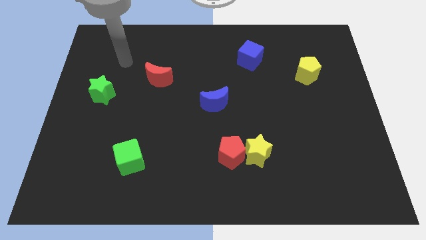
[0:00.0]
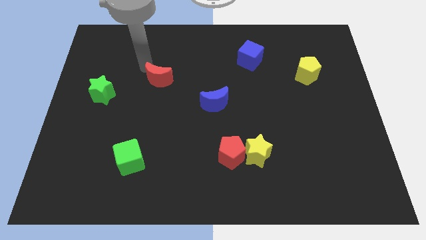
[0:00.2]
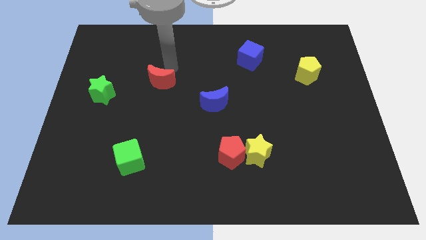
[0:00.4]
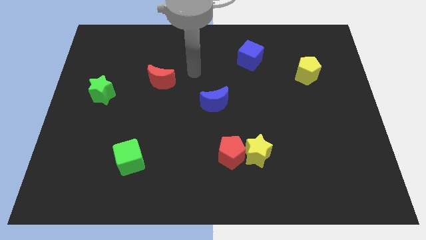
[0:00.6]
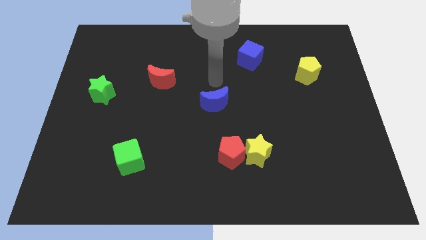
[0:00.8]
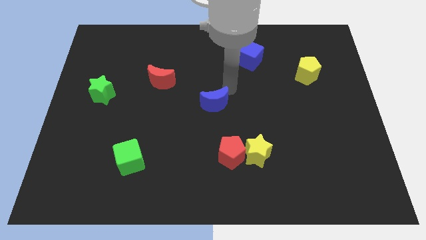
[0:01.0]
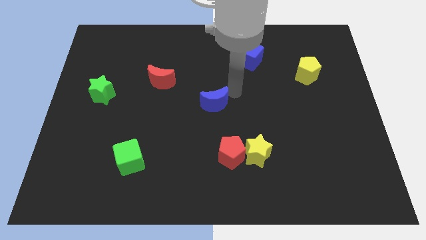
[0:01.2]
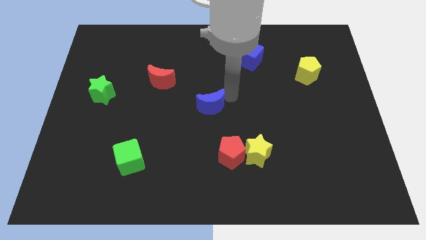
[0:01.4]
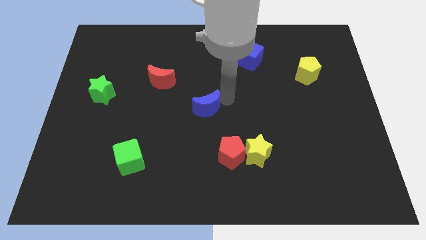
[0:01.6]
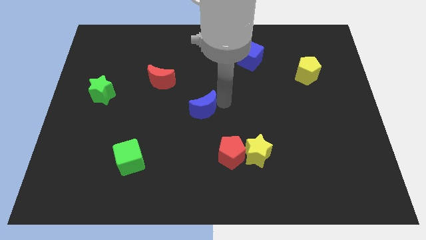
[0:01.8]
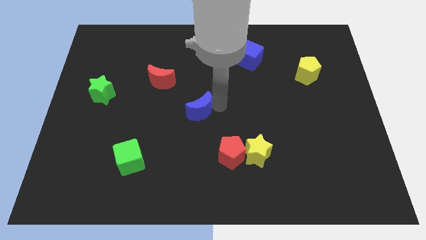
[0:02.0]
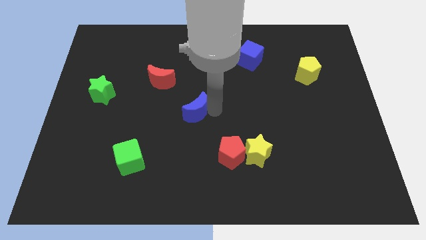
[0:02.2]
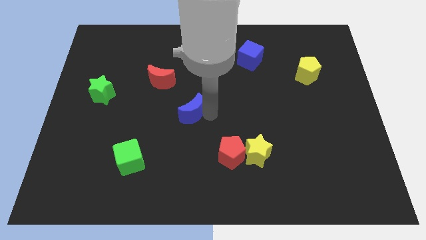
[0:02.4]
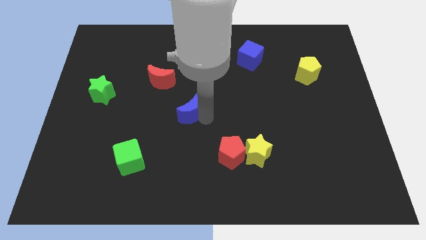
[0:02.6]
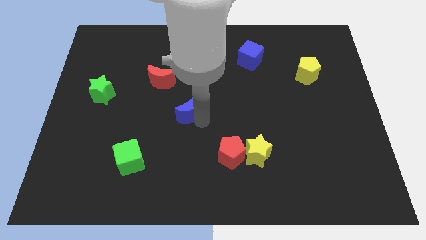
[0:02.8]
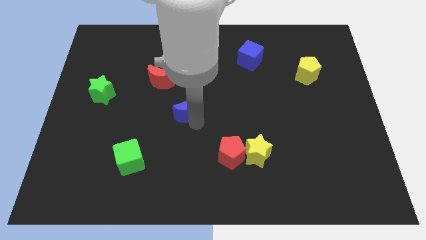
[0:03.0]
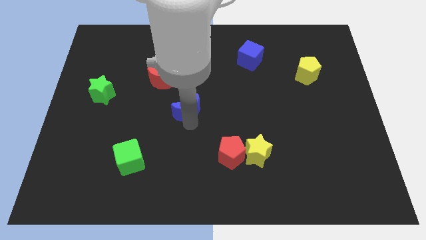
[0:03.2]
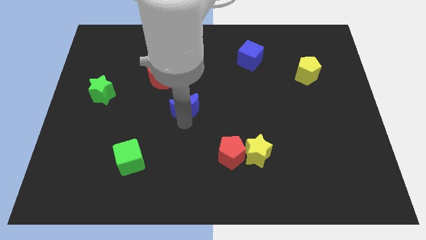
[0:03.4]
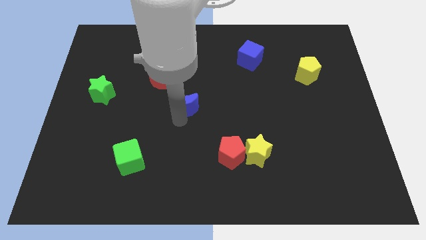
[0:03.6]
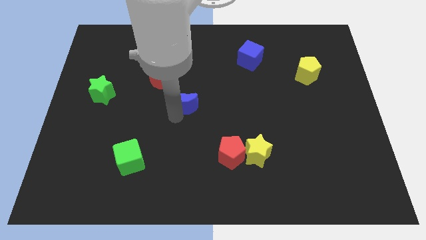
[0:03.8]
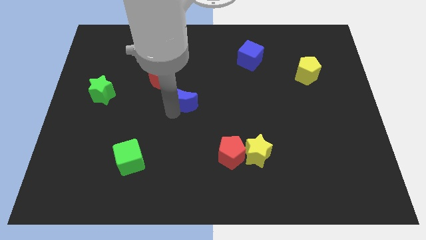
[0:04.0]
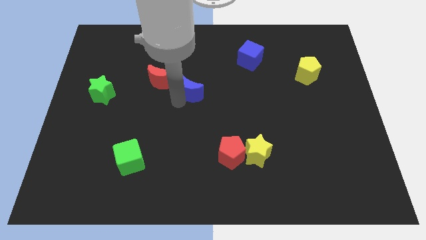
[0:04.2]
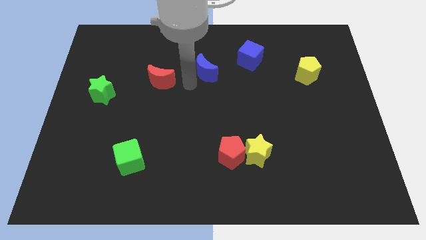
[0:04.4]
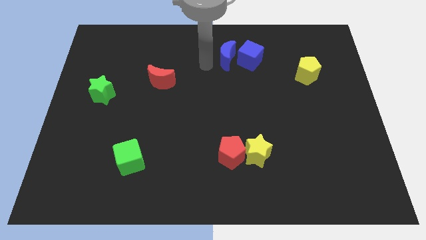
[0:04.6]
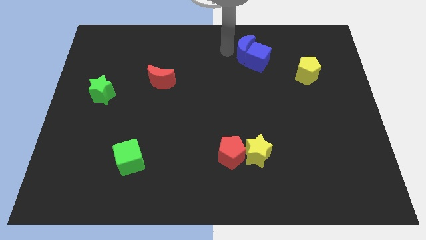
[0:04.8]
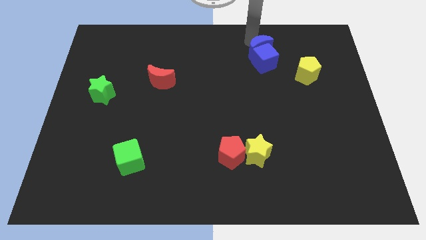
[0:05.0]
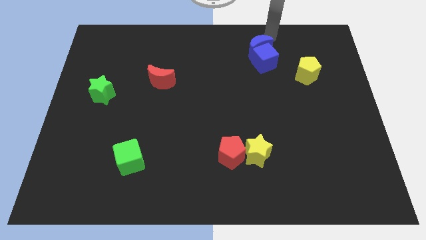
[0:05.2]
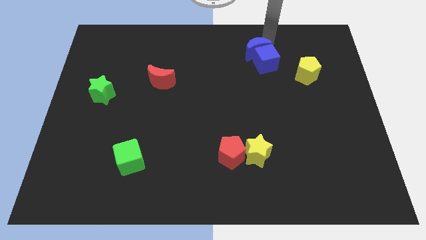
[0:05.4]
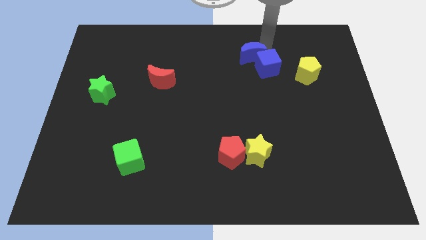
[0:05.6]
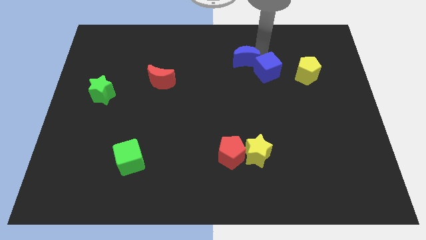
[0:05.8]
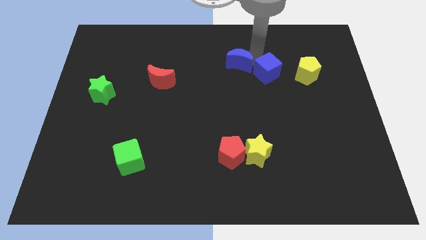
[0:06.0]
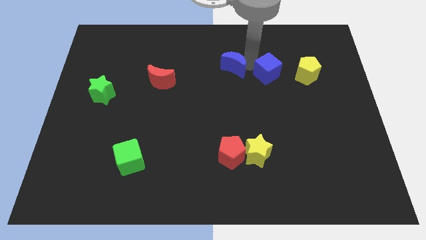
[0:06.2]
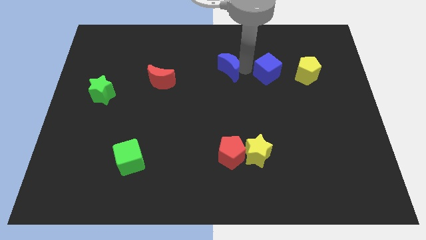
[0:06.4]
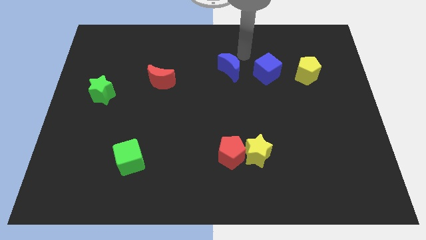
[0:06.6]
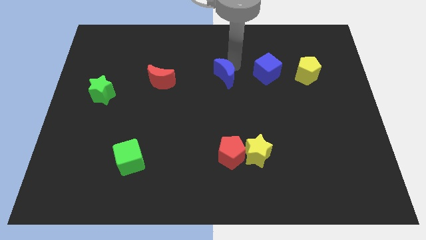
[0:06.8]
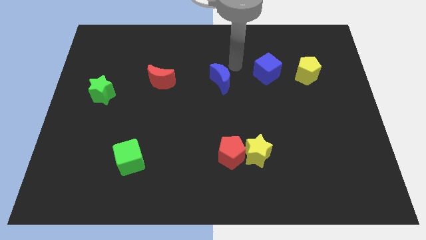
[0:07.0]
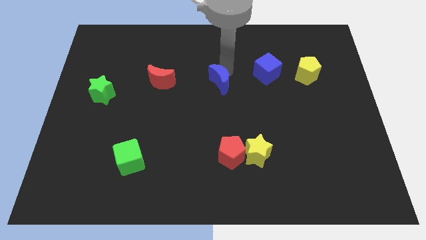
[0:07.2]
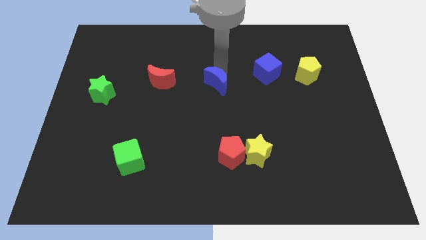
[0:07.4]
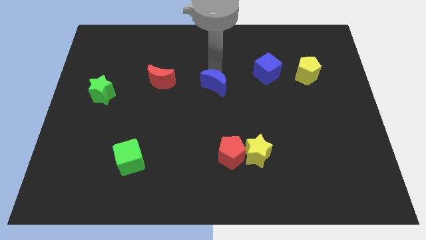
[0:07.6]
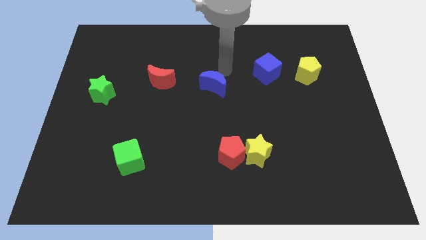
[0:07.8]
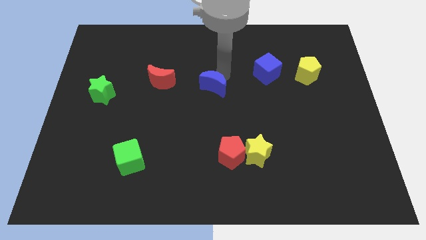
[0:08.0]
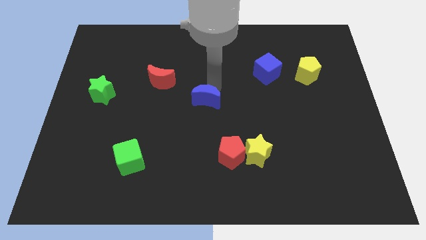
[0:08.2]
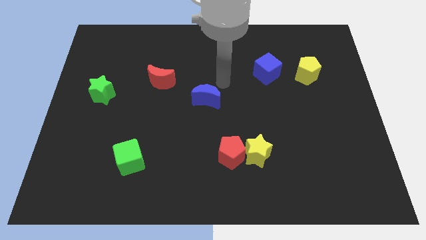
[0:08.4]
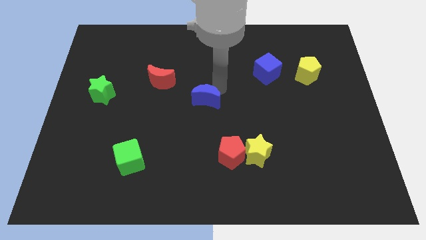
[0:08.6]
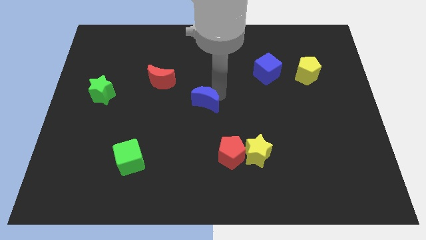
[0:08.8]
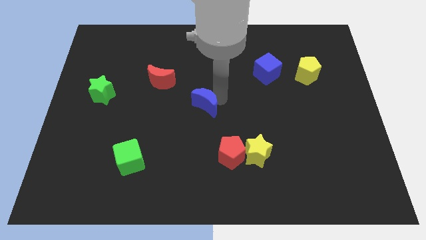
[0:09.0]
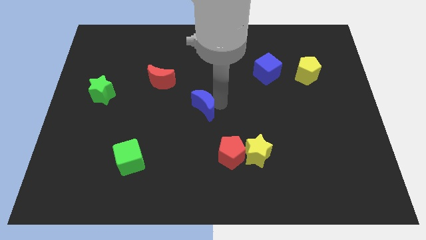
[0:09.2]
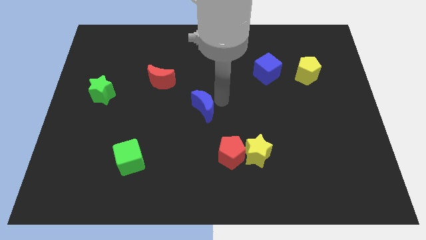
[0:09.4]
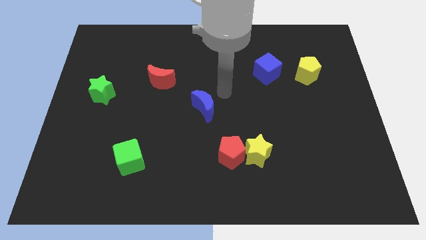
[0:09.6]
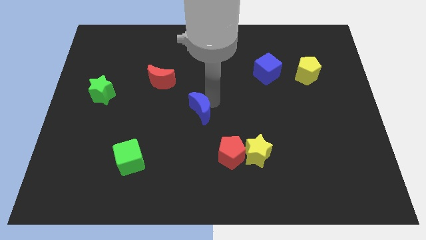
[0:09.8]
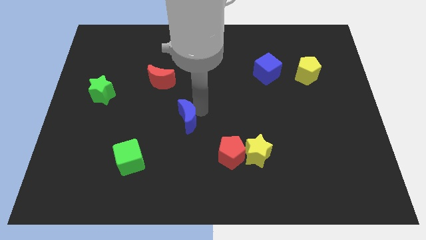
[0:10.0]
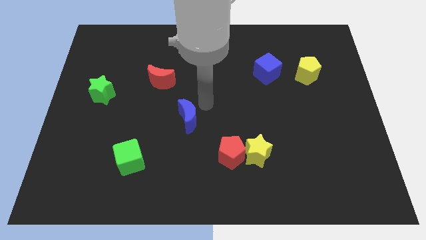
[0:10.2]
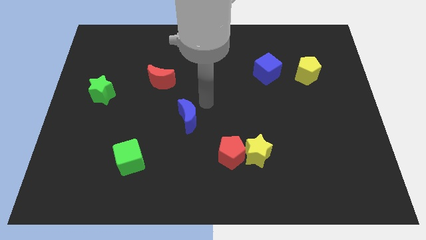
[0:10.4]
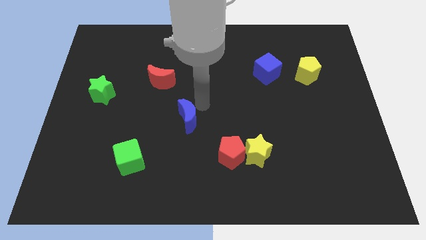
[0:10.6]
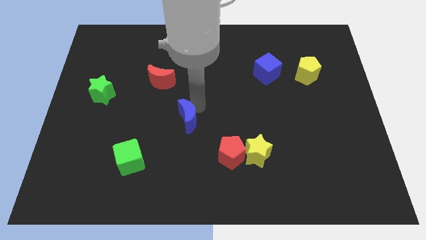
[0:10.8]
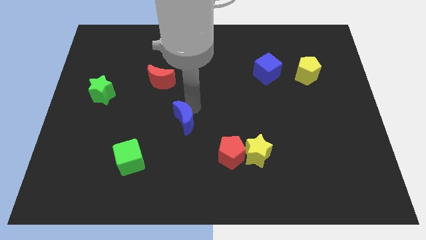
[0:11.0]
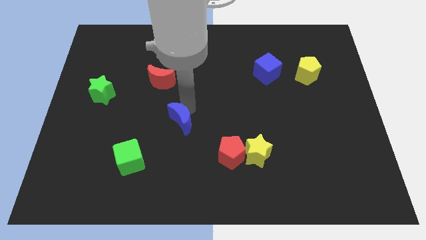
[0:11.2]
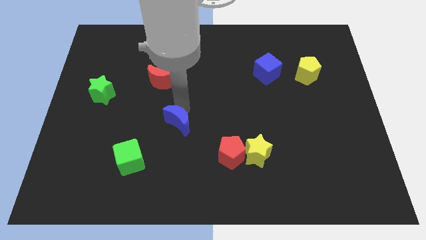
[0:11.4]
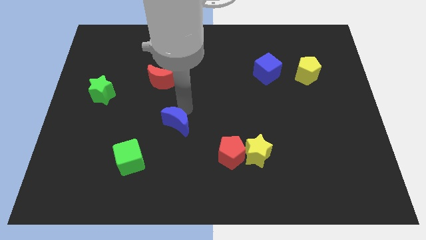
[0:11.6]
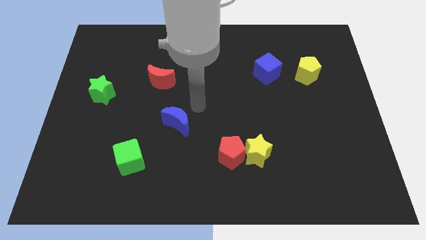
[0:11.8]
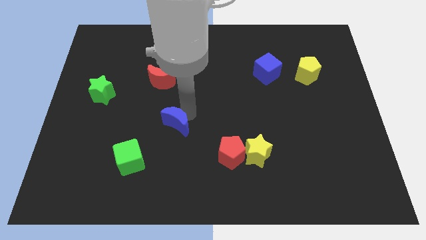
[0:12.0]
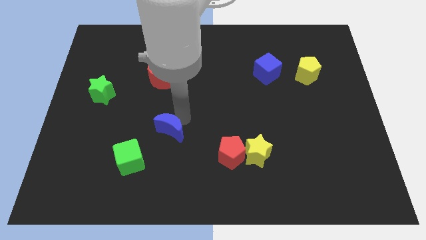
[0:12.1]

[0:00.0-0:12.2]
put the blue moon diagonally up and to the right of the green cube

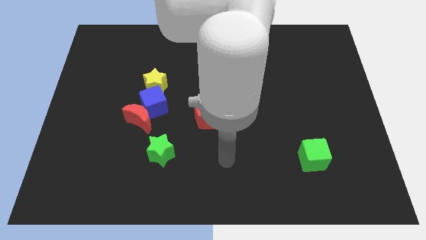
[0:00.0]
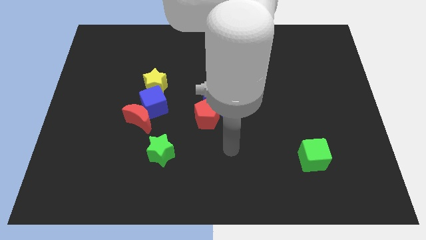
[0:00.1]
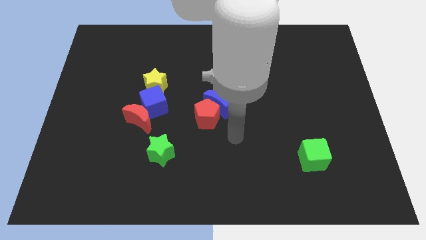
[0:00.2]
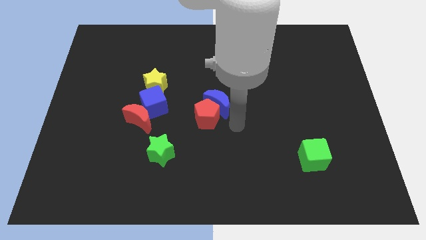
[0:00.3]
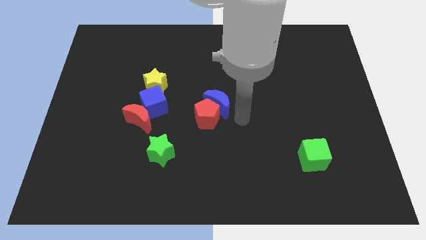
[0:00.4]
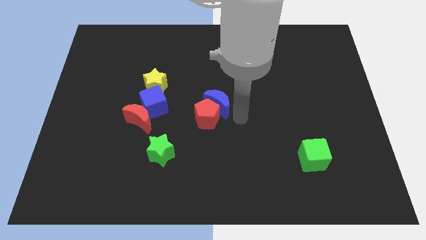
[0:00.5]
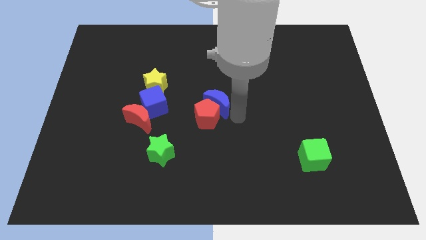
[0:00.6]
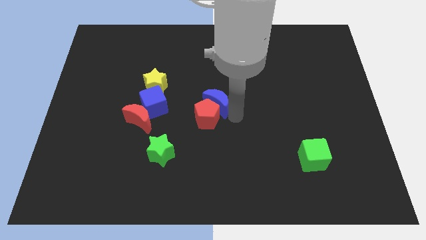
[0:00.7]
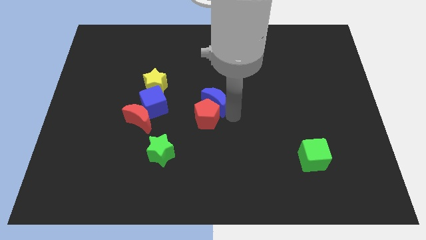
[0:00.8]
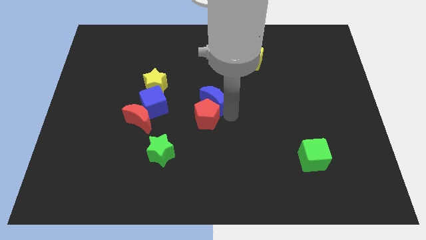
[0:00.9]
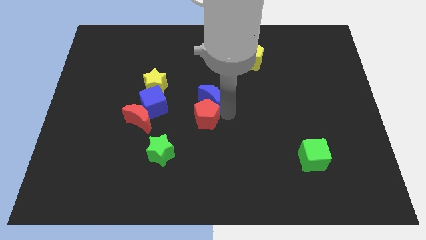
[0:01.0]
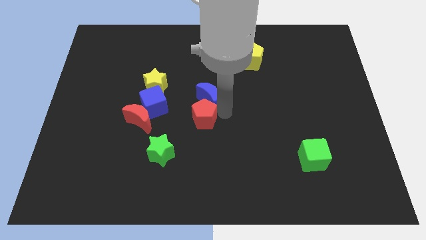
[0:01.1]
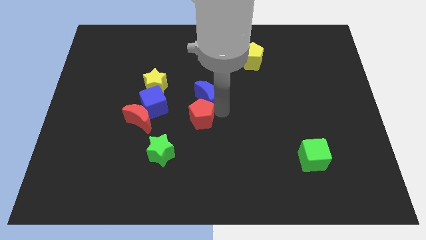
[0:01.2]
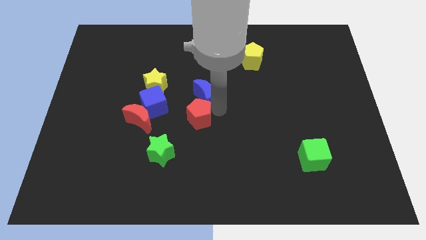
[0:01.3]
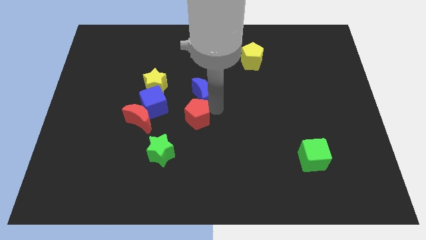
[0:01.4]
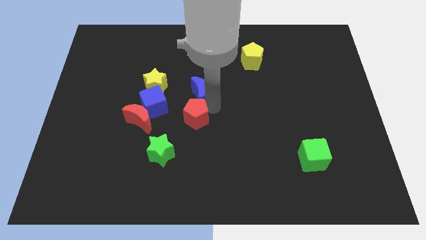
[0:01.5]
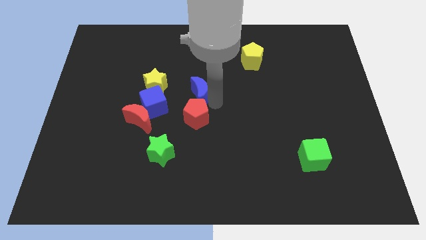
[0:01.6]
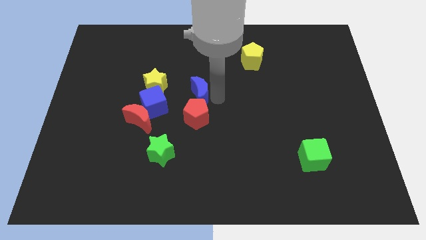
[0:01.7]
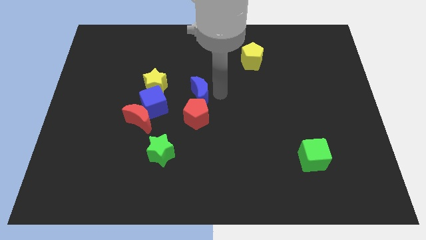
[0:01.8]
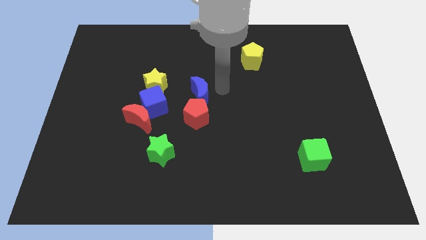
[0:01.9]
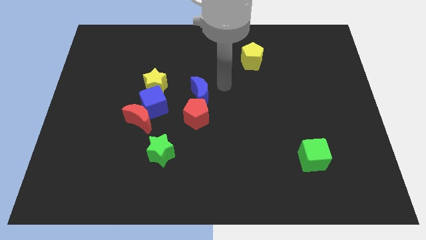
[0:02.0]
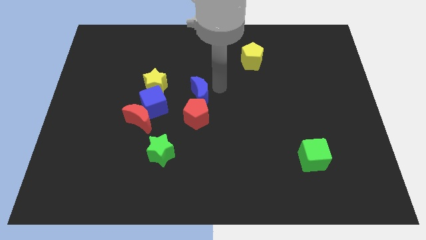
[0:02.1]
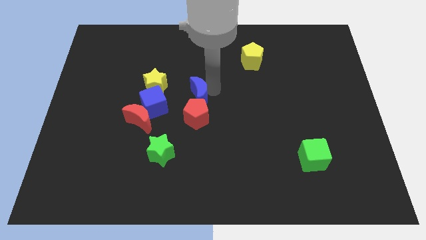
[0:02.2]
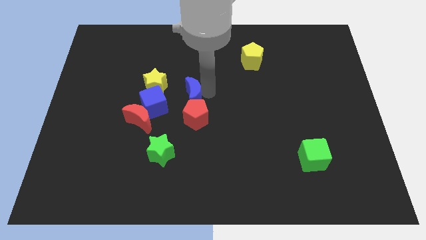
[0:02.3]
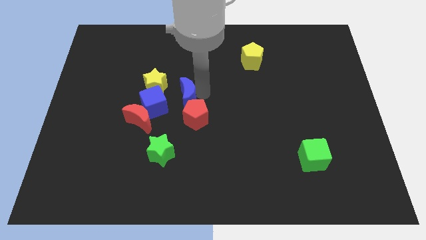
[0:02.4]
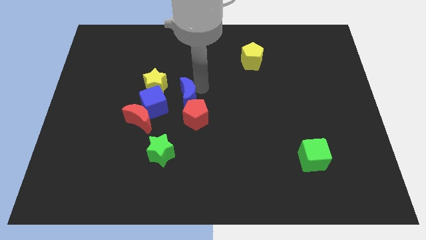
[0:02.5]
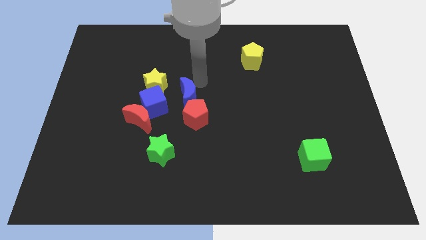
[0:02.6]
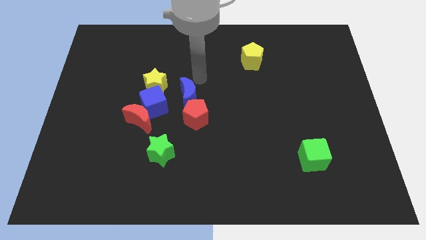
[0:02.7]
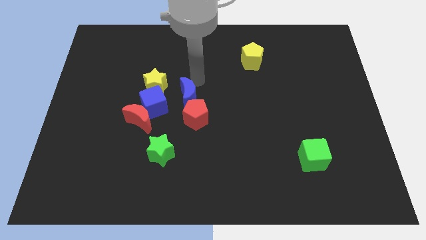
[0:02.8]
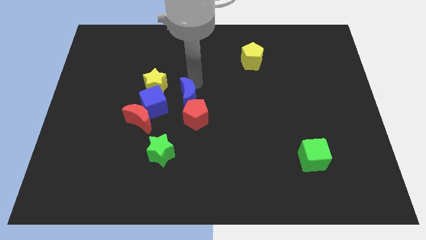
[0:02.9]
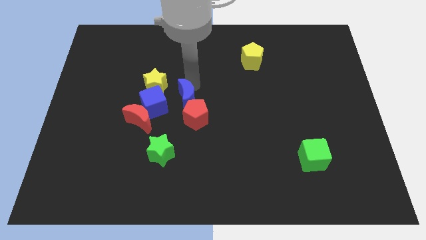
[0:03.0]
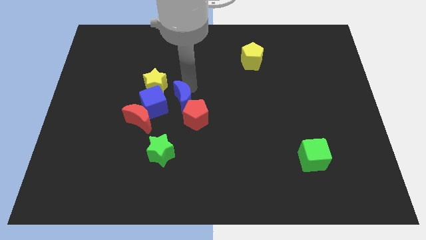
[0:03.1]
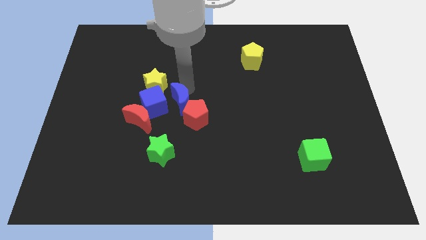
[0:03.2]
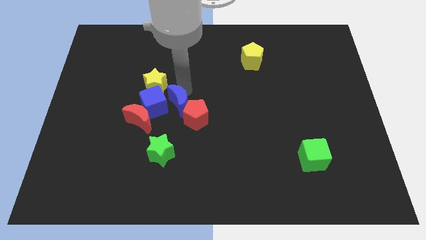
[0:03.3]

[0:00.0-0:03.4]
move the blue moon to the bottom right side of the blue cube
